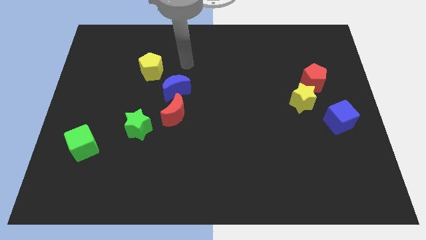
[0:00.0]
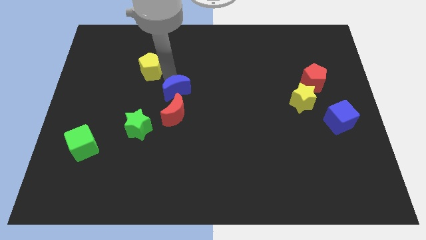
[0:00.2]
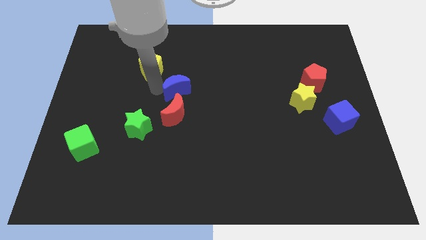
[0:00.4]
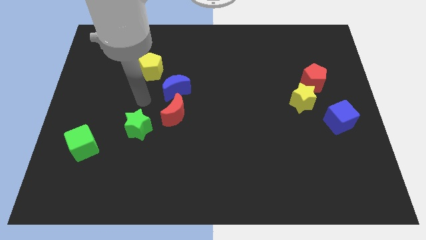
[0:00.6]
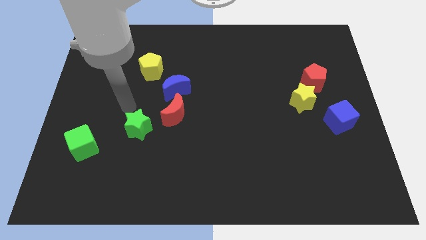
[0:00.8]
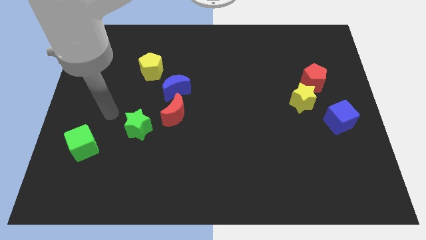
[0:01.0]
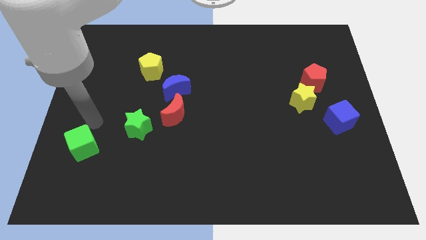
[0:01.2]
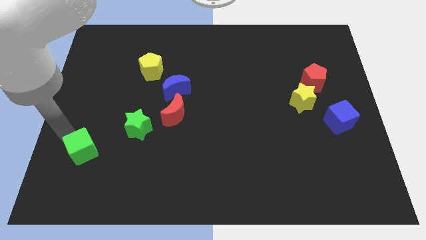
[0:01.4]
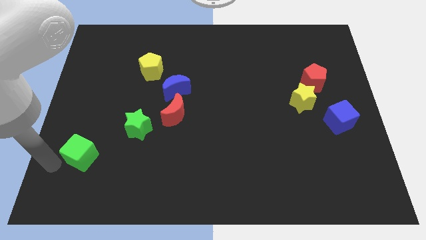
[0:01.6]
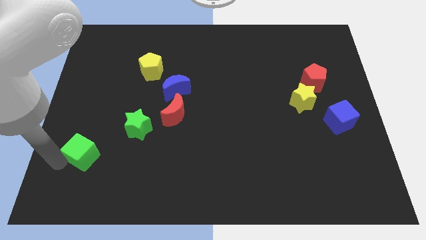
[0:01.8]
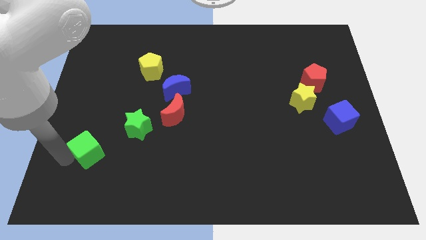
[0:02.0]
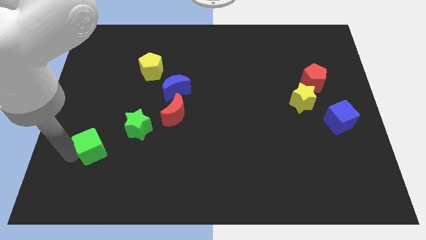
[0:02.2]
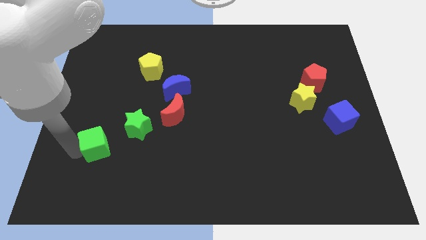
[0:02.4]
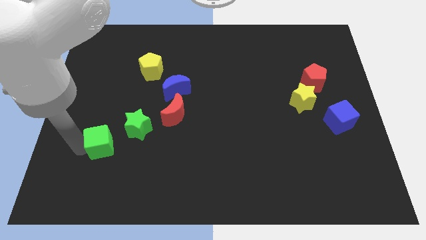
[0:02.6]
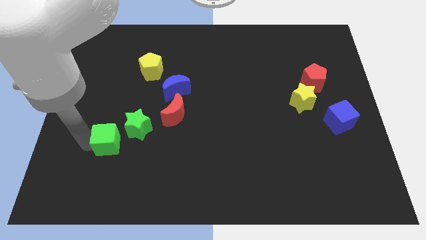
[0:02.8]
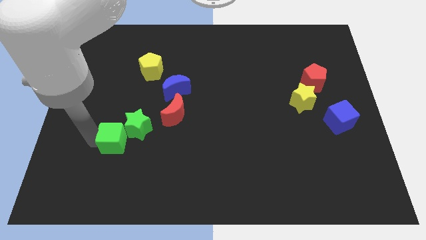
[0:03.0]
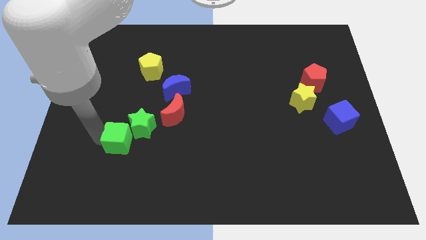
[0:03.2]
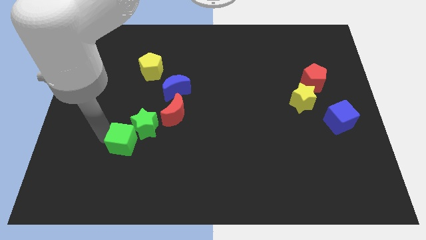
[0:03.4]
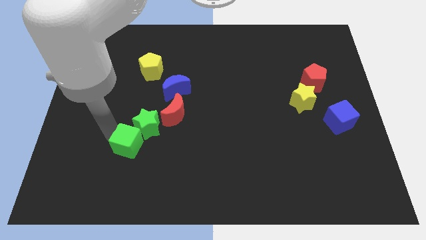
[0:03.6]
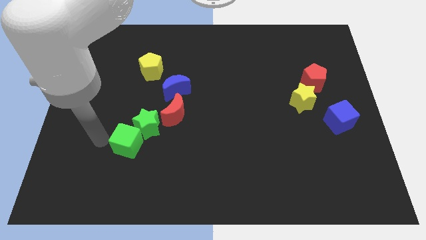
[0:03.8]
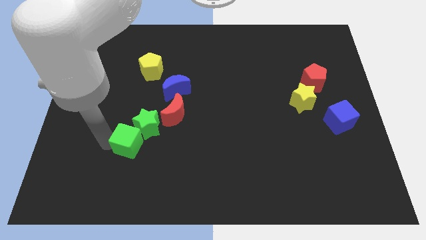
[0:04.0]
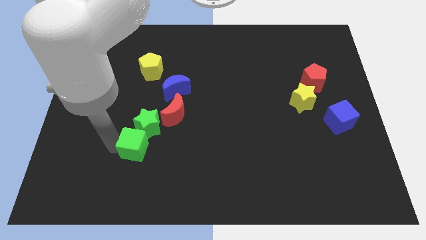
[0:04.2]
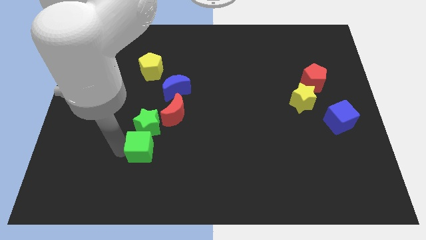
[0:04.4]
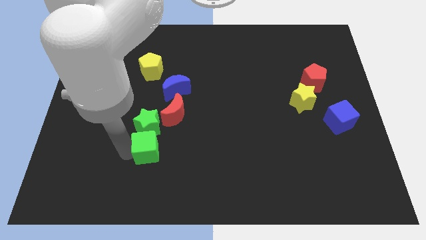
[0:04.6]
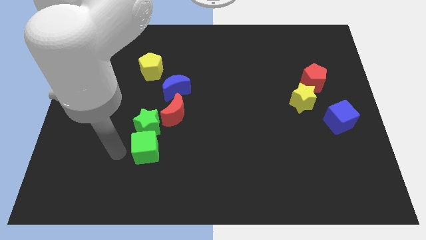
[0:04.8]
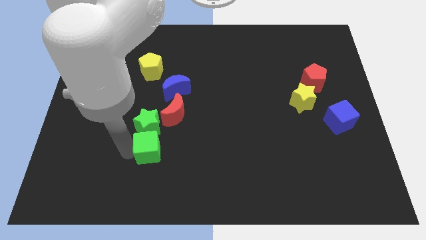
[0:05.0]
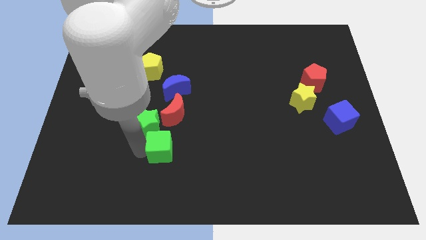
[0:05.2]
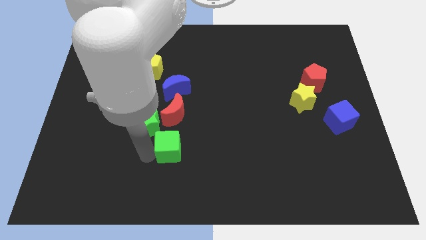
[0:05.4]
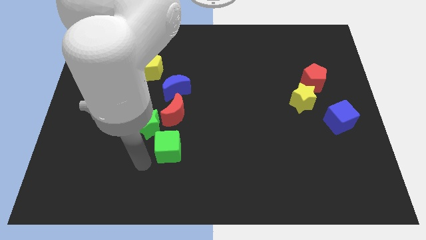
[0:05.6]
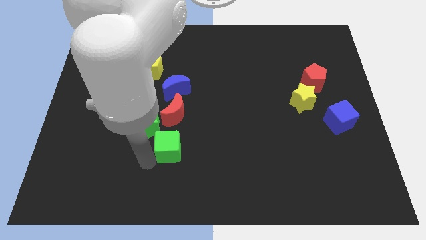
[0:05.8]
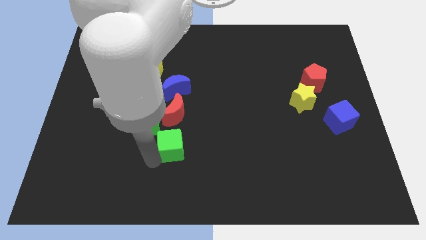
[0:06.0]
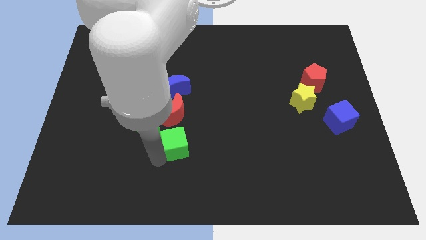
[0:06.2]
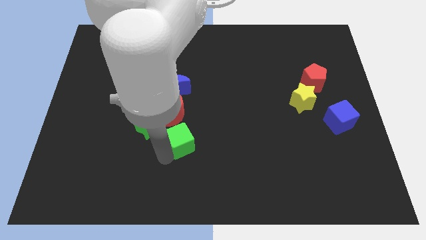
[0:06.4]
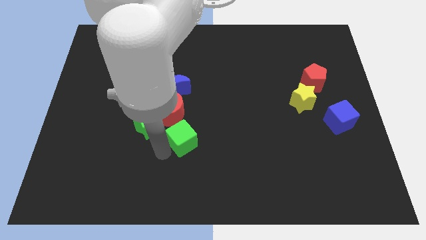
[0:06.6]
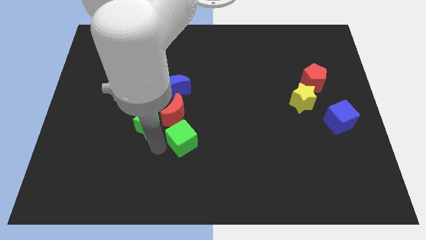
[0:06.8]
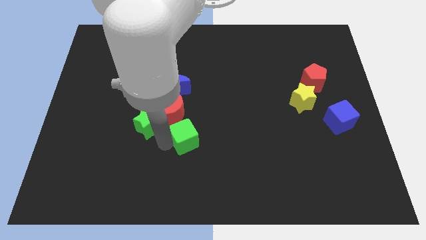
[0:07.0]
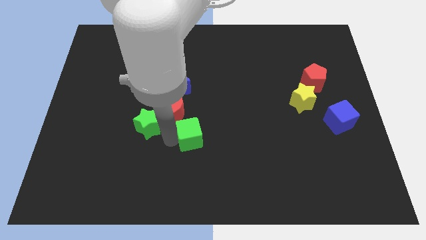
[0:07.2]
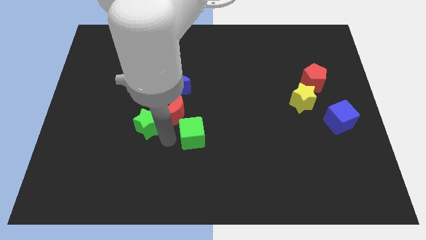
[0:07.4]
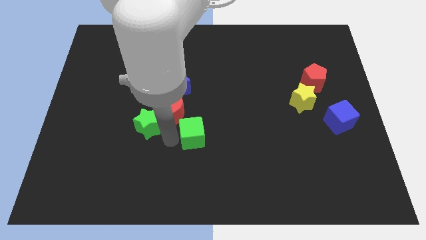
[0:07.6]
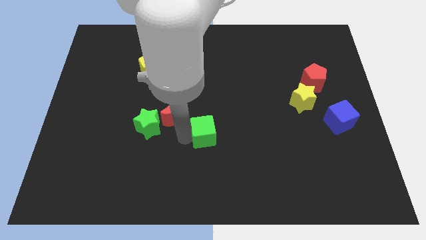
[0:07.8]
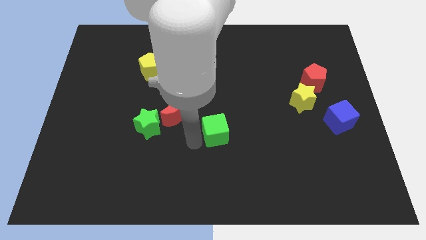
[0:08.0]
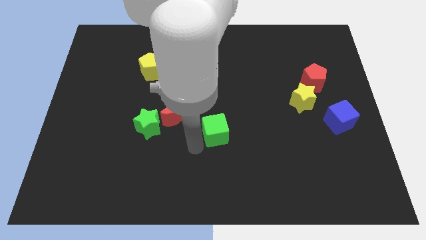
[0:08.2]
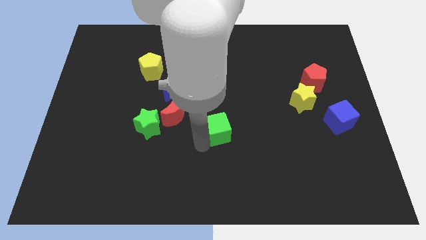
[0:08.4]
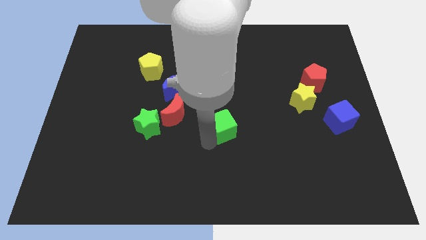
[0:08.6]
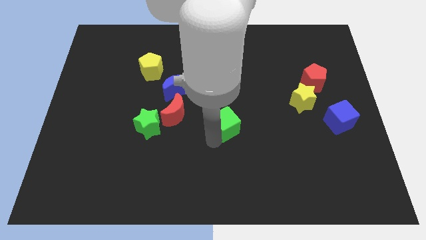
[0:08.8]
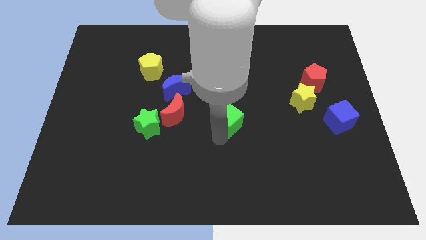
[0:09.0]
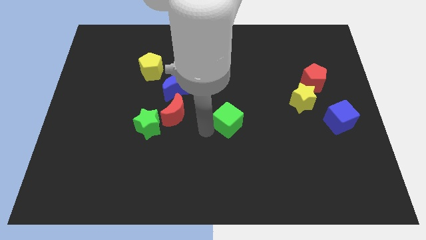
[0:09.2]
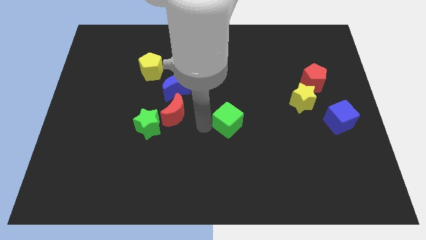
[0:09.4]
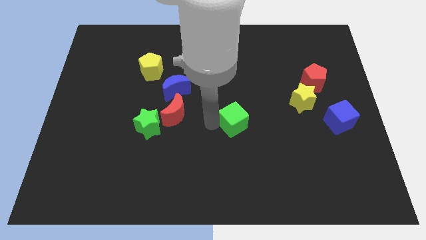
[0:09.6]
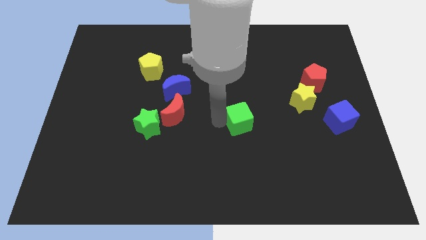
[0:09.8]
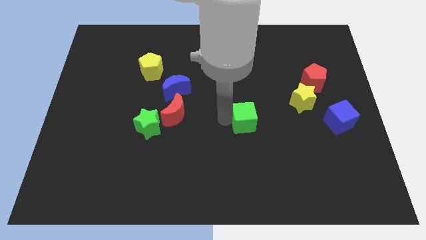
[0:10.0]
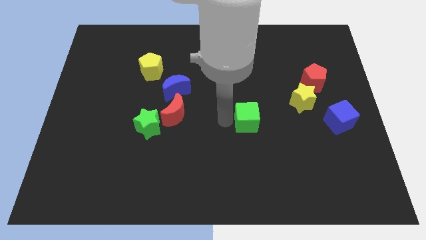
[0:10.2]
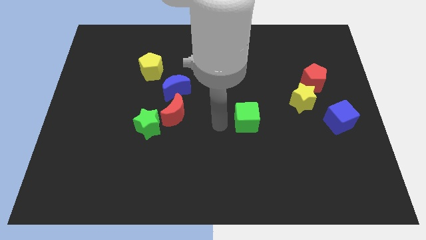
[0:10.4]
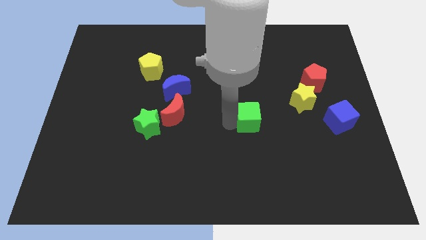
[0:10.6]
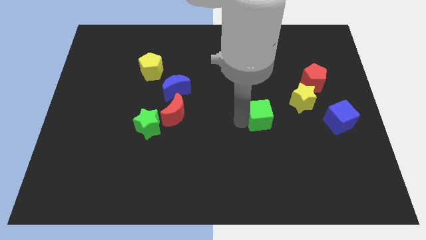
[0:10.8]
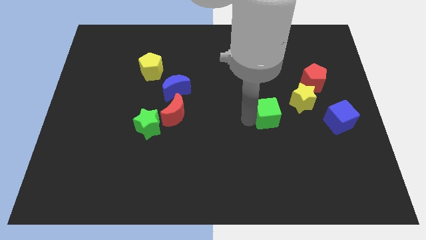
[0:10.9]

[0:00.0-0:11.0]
move the green cube diagonally down and to the left of the yellow star

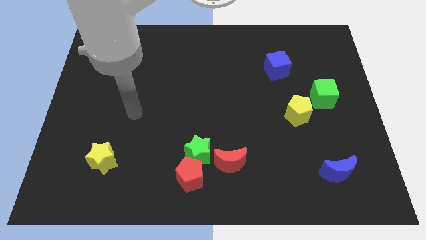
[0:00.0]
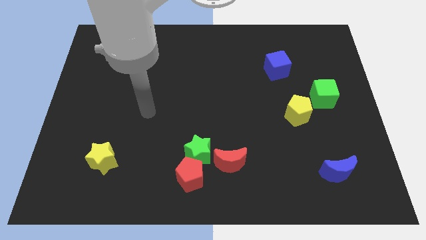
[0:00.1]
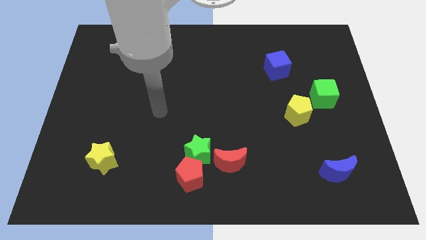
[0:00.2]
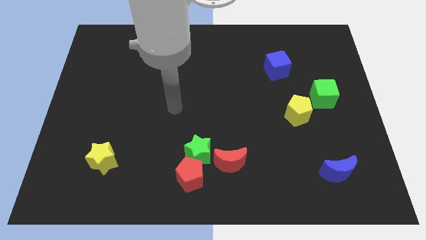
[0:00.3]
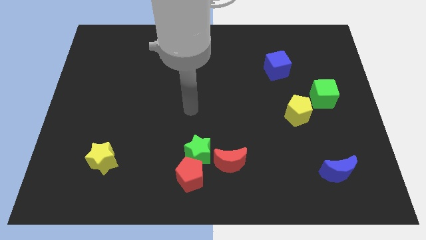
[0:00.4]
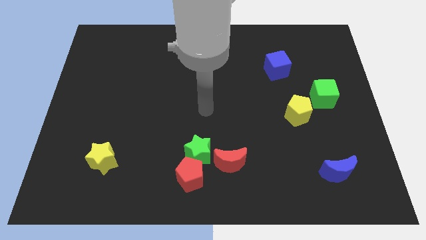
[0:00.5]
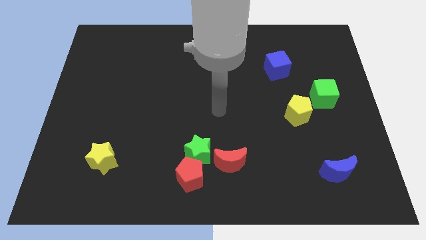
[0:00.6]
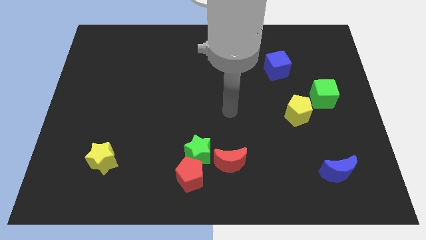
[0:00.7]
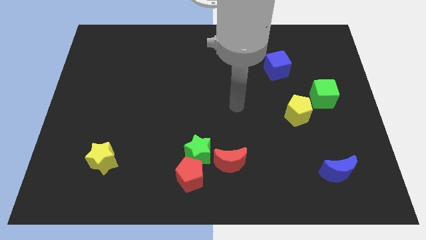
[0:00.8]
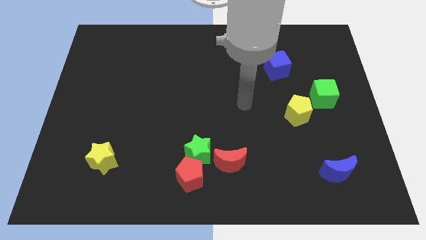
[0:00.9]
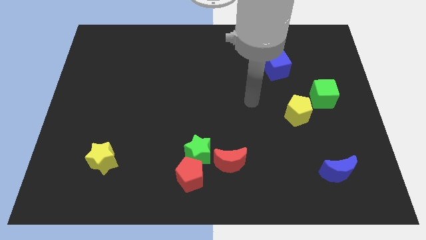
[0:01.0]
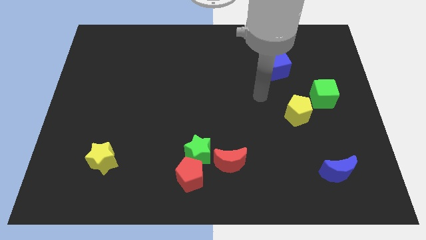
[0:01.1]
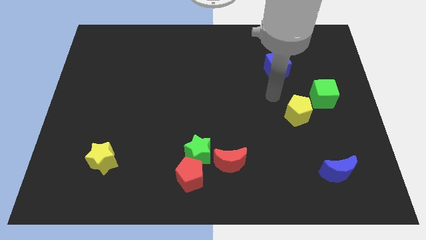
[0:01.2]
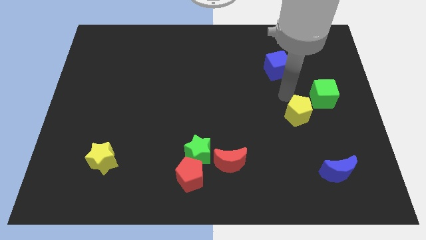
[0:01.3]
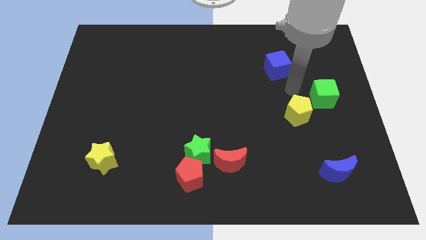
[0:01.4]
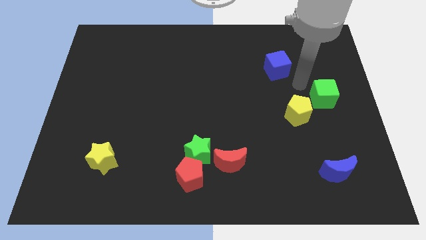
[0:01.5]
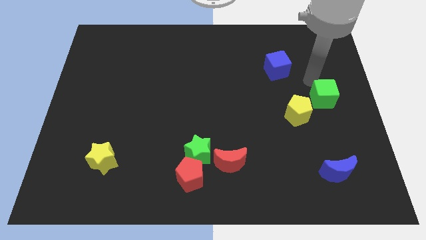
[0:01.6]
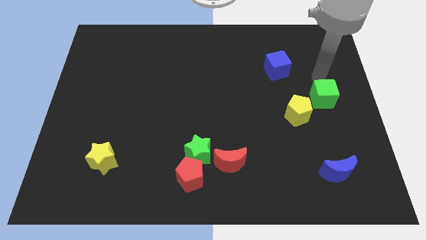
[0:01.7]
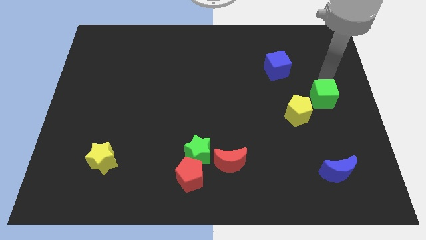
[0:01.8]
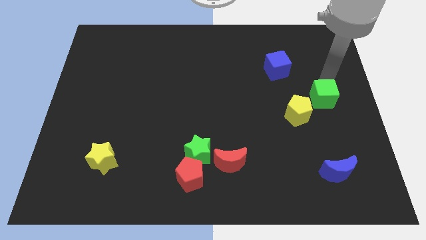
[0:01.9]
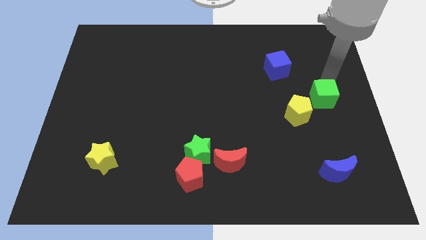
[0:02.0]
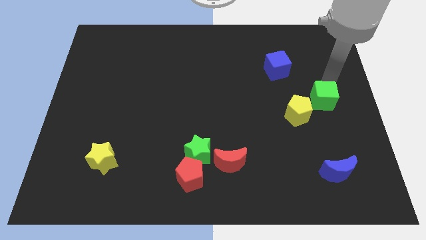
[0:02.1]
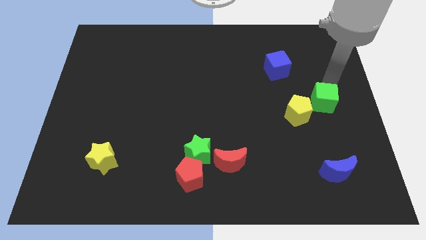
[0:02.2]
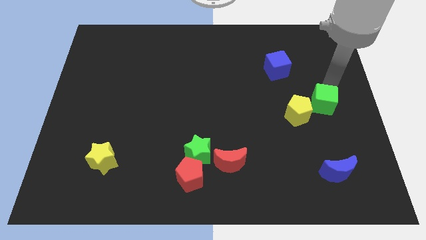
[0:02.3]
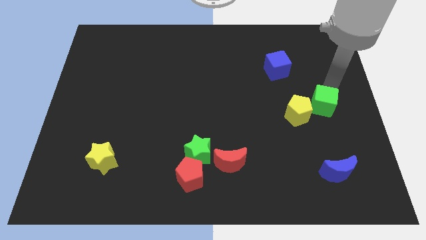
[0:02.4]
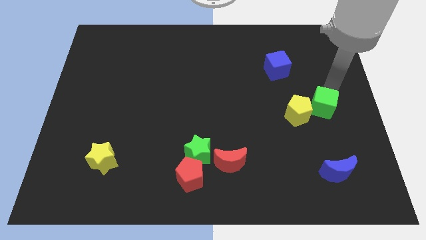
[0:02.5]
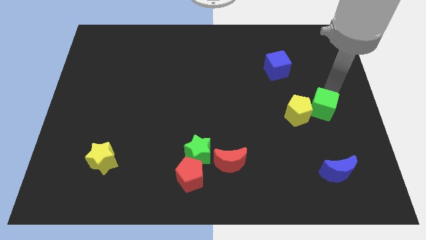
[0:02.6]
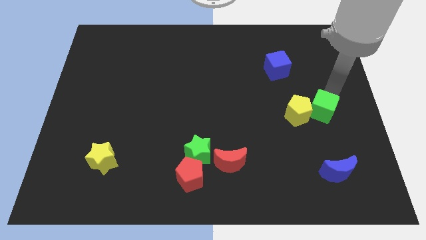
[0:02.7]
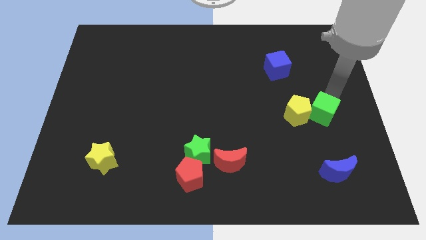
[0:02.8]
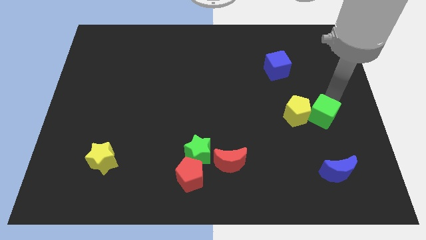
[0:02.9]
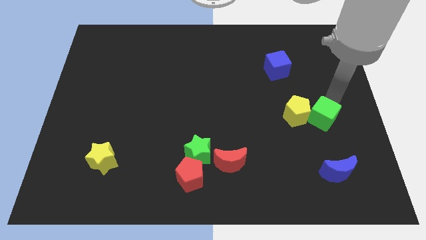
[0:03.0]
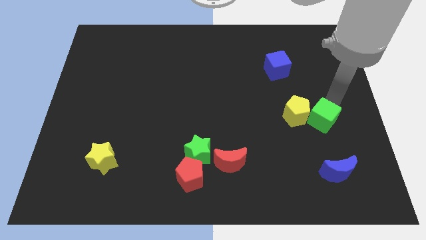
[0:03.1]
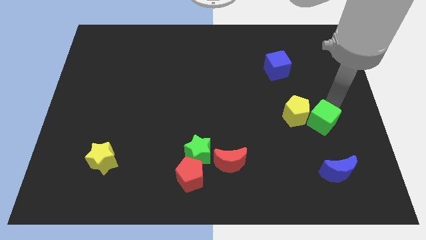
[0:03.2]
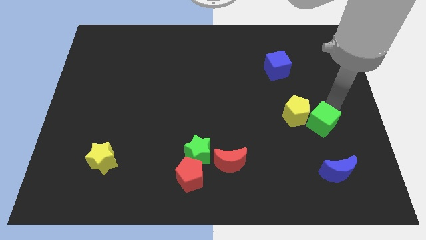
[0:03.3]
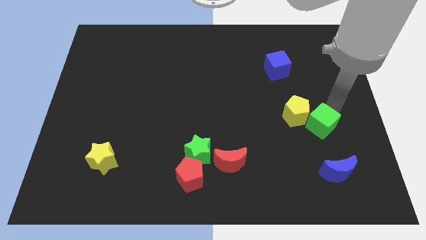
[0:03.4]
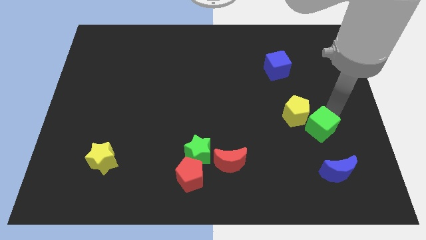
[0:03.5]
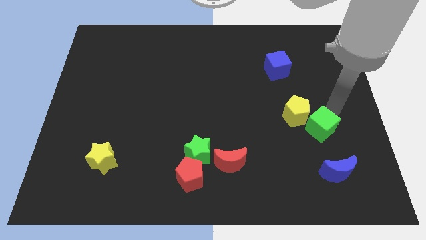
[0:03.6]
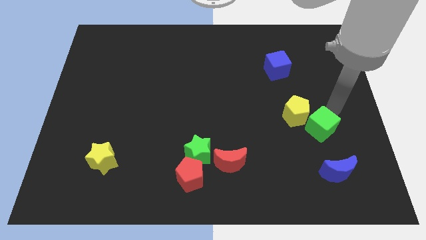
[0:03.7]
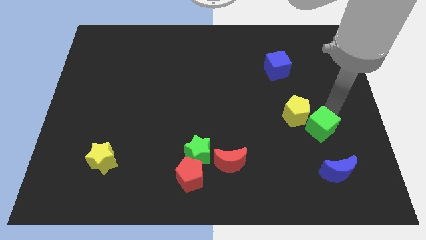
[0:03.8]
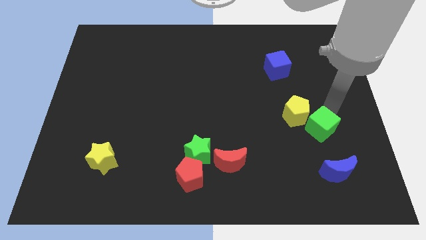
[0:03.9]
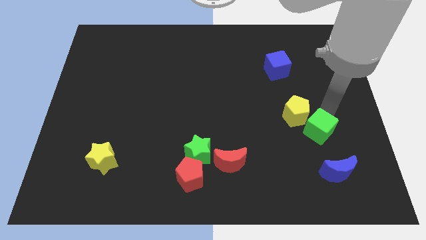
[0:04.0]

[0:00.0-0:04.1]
move the green cube to the bottom side of the yellow pentagon
